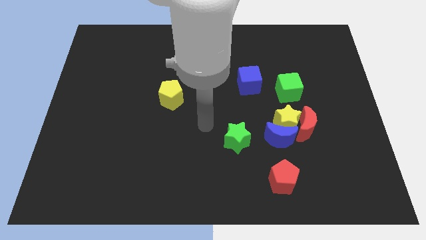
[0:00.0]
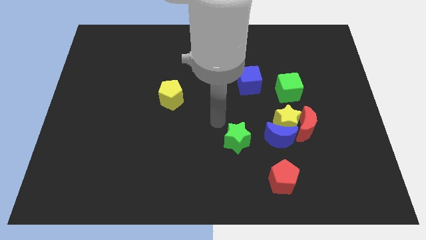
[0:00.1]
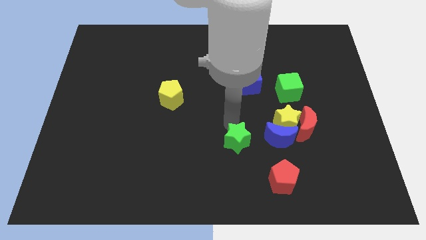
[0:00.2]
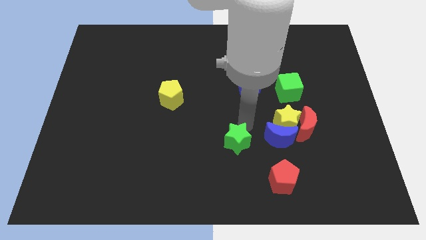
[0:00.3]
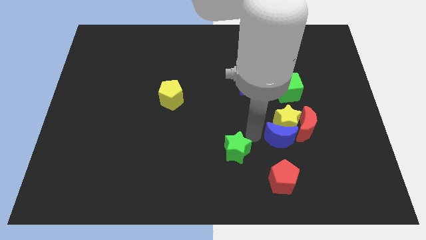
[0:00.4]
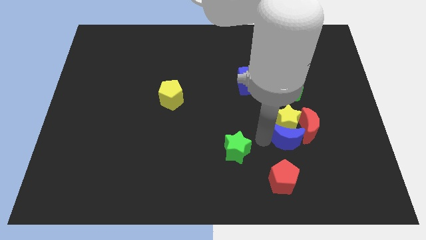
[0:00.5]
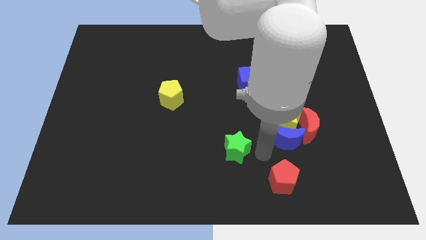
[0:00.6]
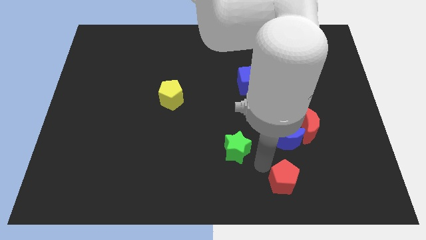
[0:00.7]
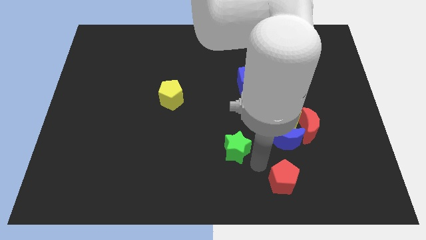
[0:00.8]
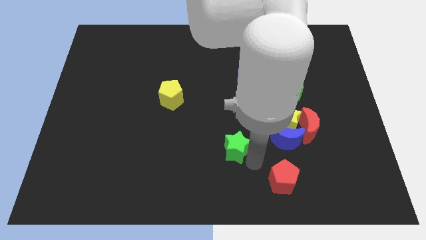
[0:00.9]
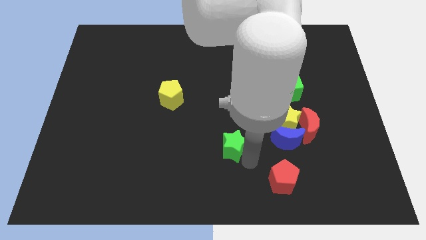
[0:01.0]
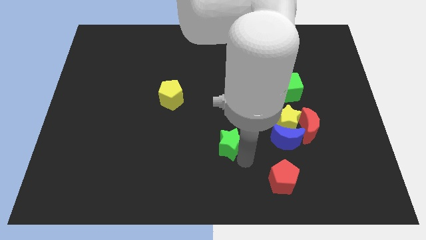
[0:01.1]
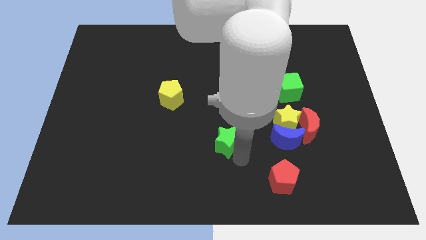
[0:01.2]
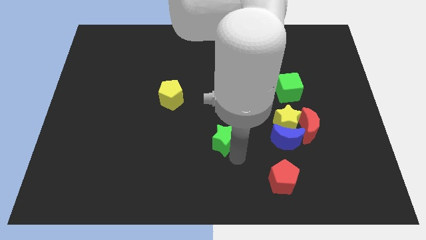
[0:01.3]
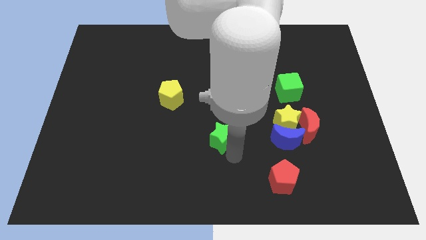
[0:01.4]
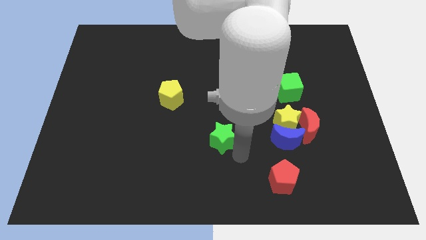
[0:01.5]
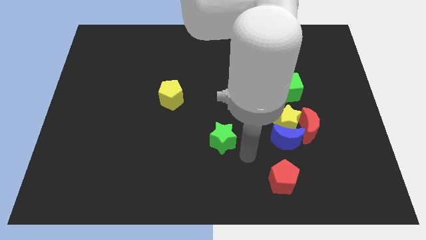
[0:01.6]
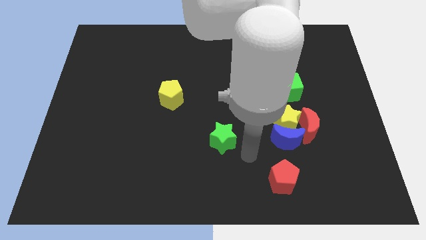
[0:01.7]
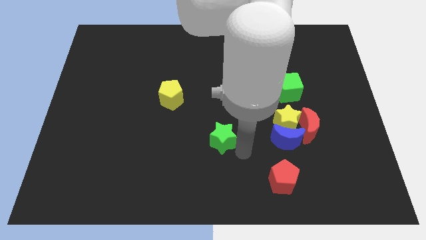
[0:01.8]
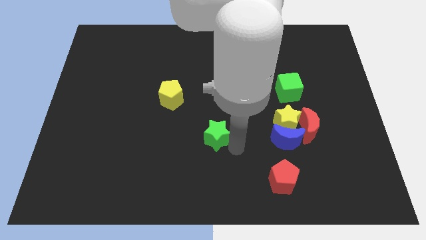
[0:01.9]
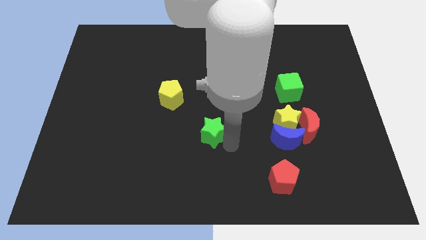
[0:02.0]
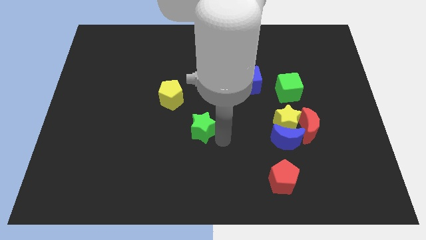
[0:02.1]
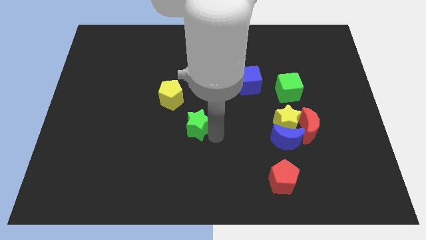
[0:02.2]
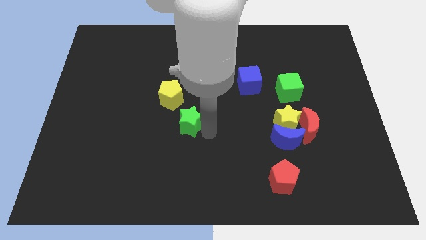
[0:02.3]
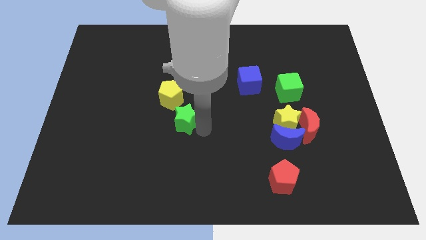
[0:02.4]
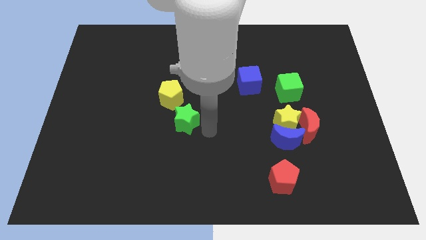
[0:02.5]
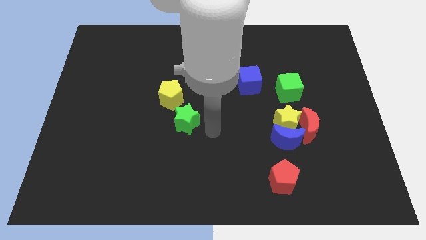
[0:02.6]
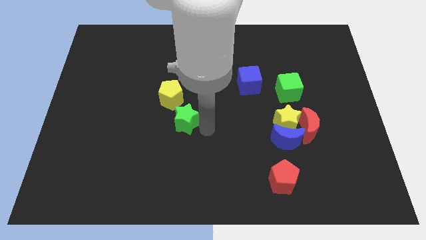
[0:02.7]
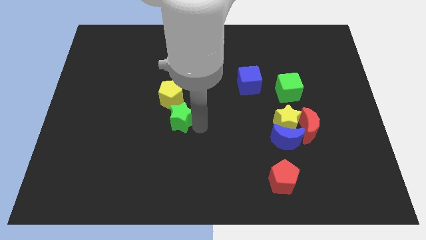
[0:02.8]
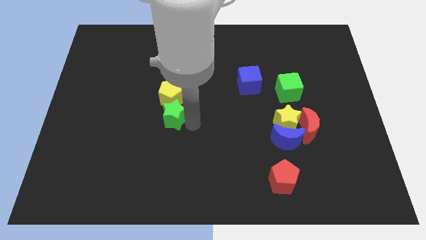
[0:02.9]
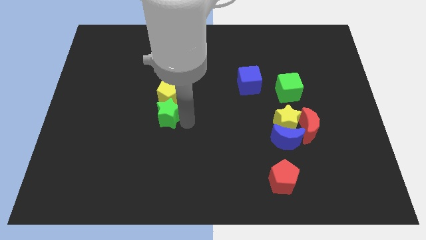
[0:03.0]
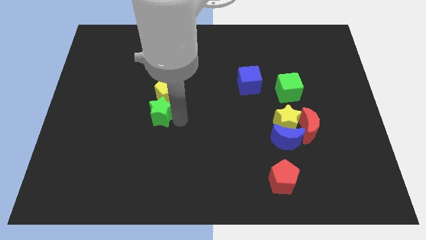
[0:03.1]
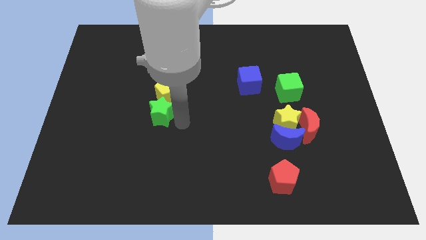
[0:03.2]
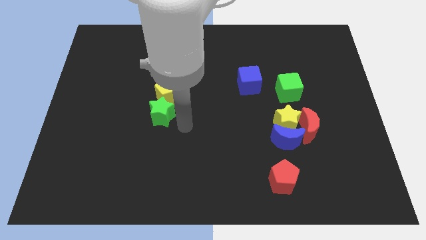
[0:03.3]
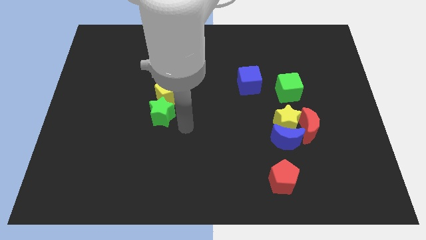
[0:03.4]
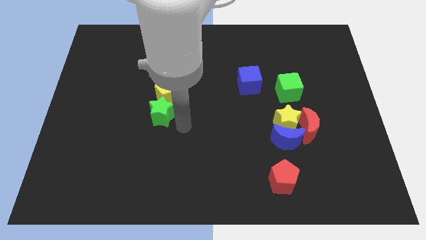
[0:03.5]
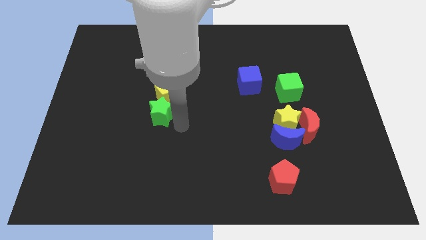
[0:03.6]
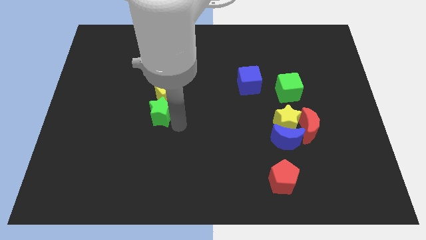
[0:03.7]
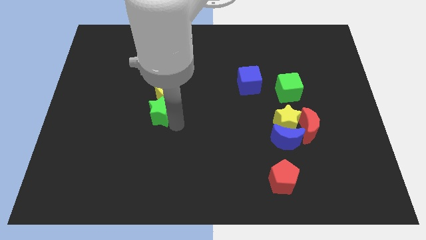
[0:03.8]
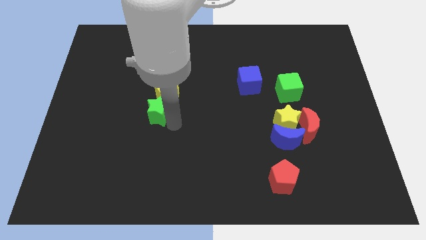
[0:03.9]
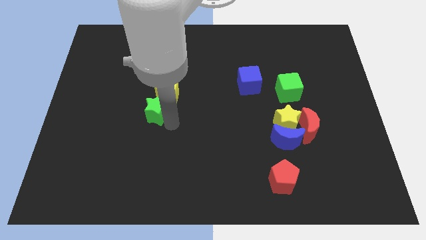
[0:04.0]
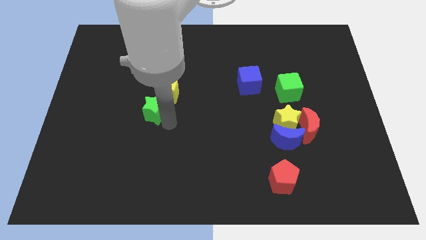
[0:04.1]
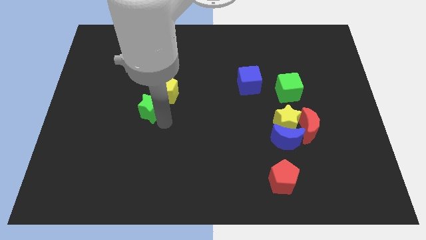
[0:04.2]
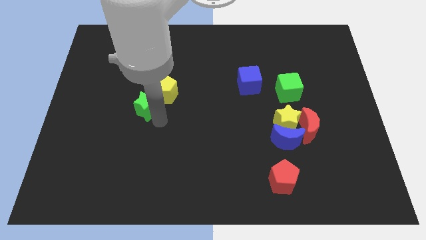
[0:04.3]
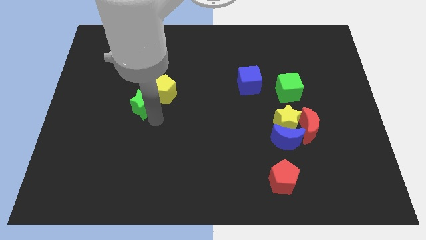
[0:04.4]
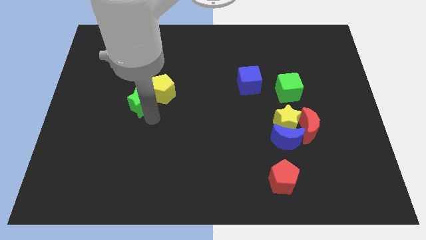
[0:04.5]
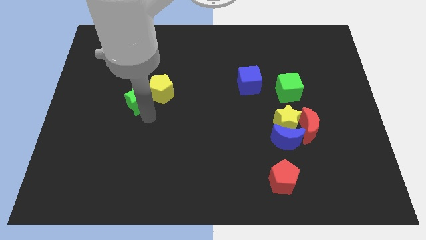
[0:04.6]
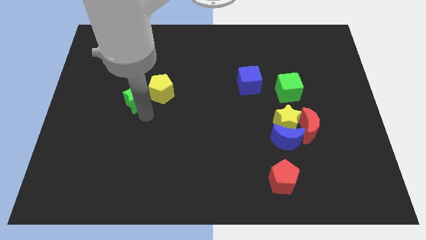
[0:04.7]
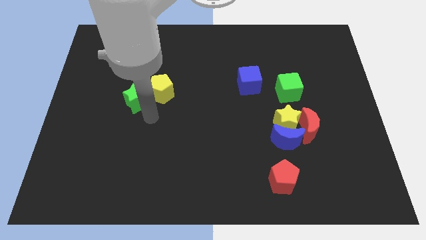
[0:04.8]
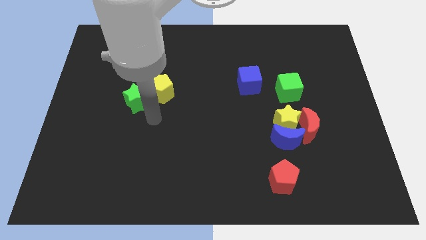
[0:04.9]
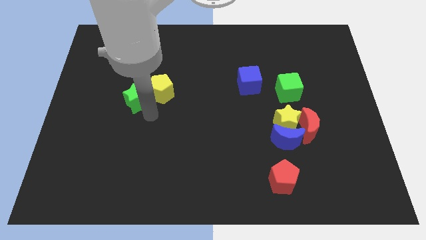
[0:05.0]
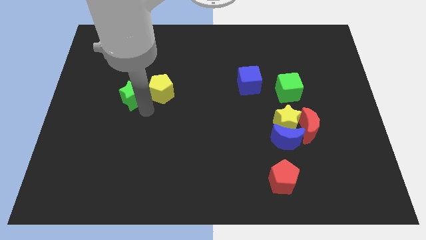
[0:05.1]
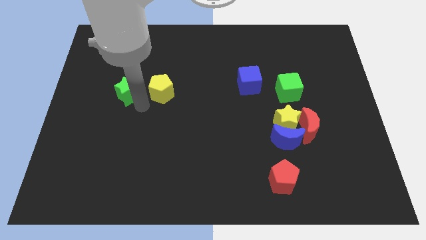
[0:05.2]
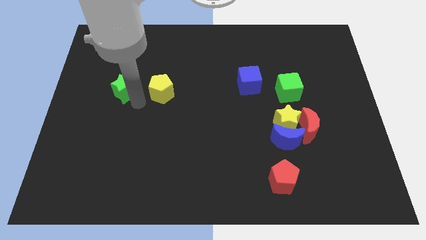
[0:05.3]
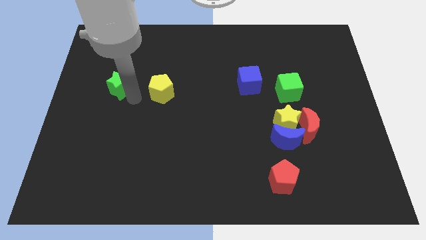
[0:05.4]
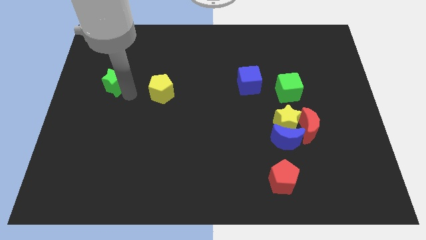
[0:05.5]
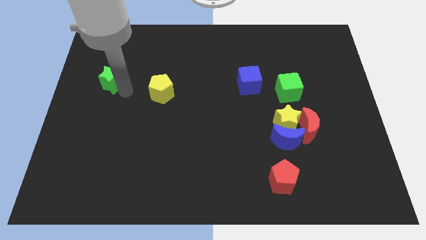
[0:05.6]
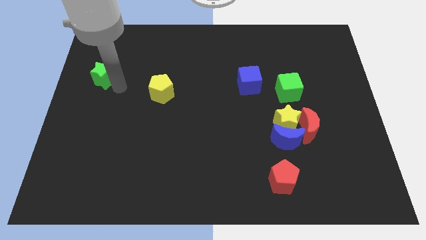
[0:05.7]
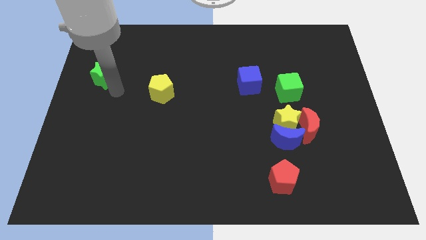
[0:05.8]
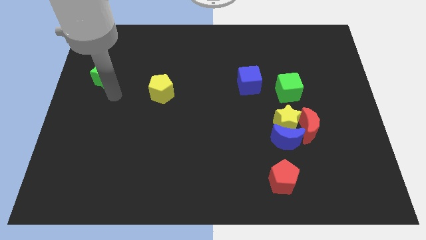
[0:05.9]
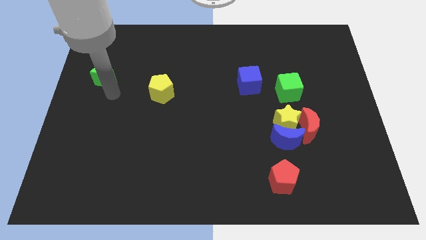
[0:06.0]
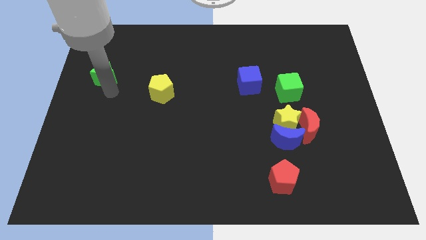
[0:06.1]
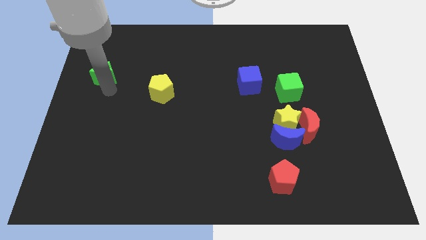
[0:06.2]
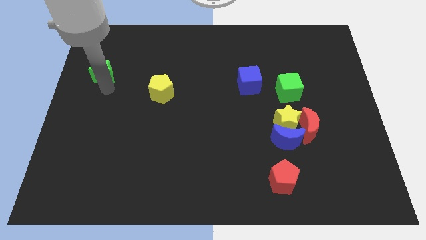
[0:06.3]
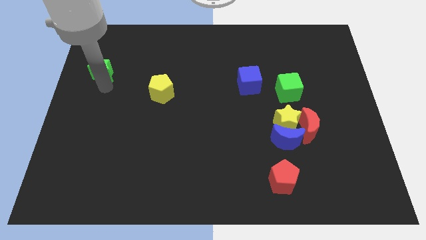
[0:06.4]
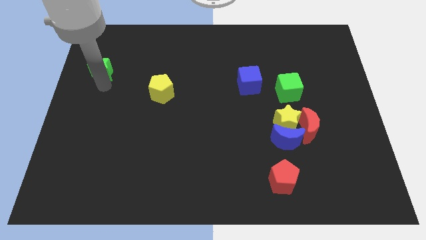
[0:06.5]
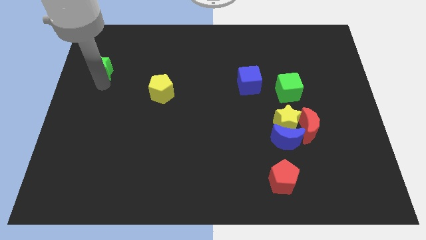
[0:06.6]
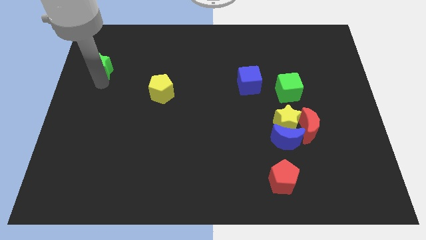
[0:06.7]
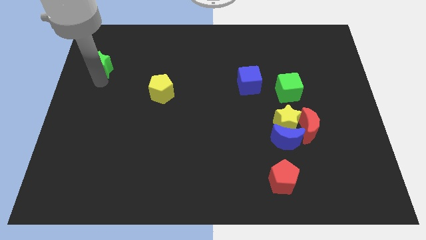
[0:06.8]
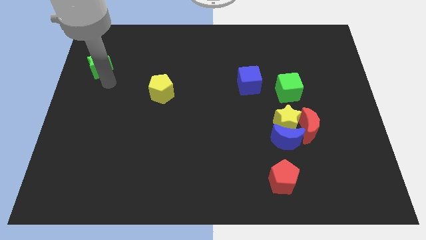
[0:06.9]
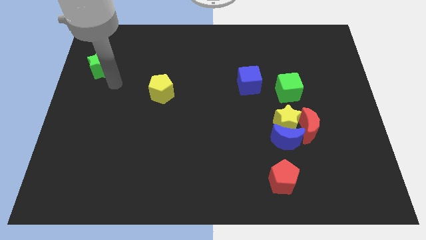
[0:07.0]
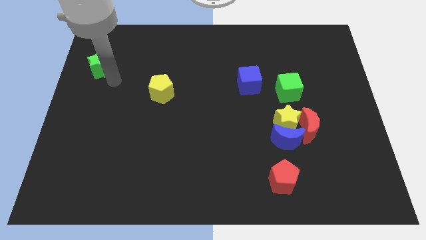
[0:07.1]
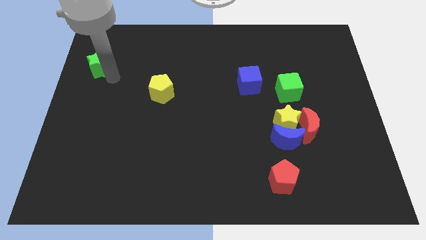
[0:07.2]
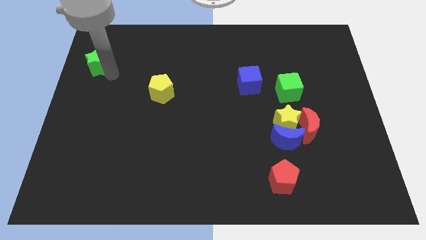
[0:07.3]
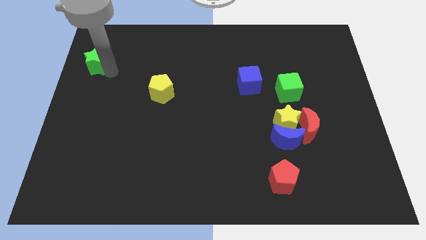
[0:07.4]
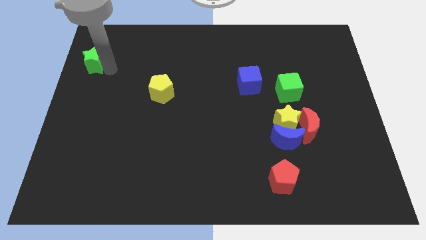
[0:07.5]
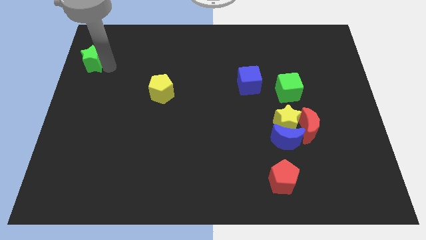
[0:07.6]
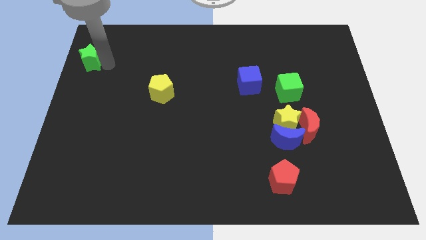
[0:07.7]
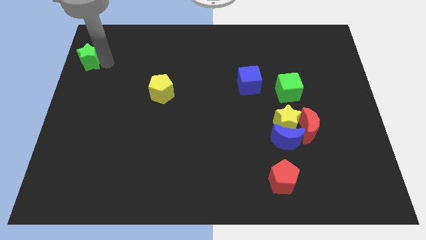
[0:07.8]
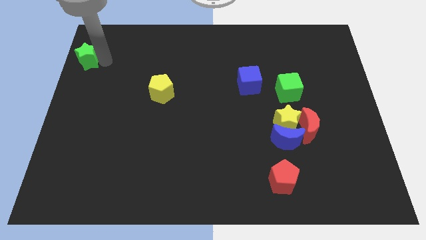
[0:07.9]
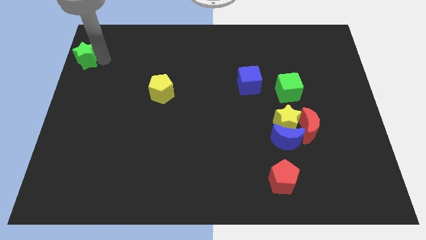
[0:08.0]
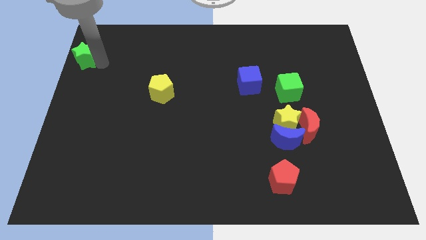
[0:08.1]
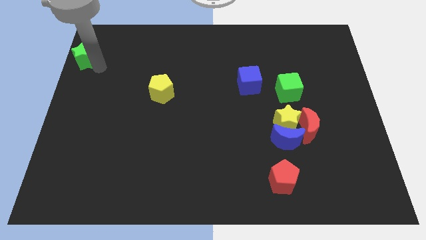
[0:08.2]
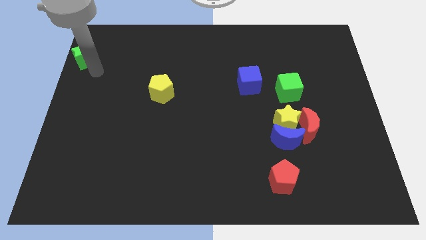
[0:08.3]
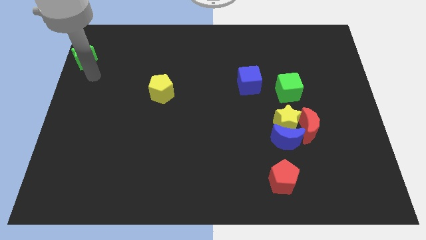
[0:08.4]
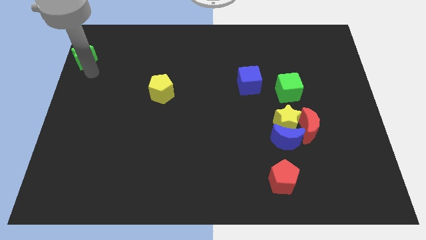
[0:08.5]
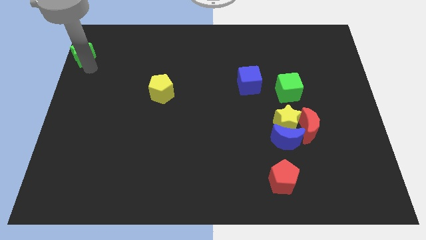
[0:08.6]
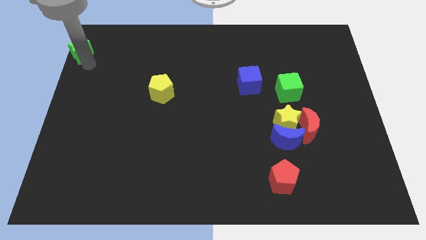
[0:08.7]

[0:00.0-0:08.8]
put the green star to the upper left corner
